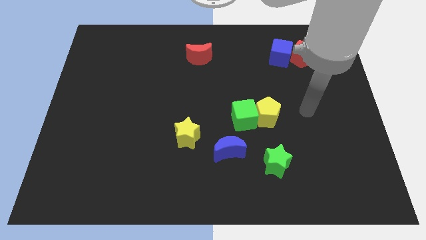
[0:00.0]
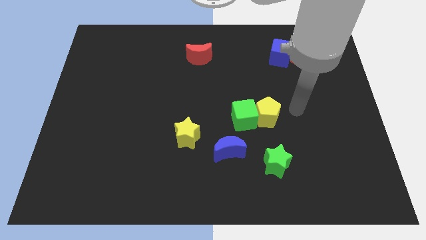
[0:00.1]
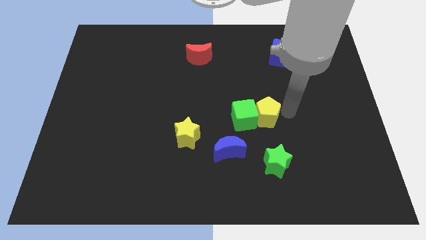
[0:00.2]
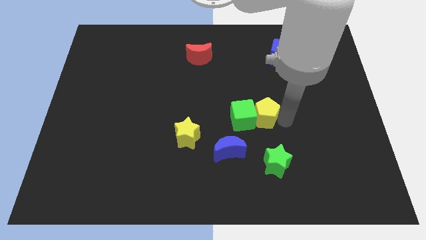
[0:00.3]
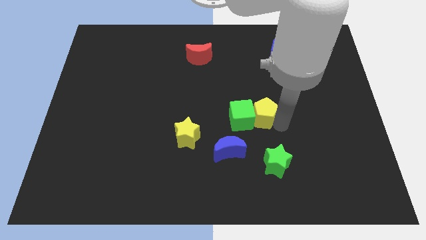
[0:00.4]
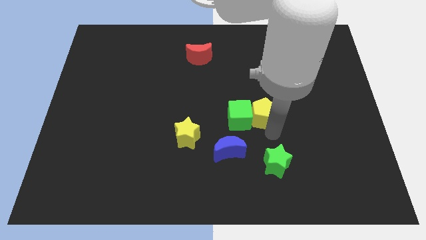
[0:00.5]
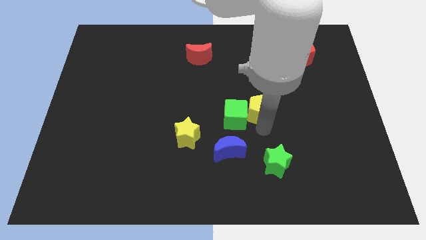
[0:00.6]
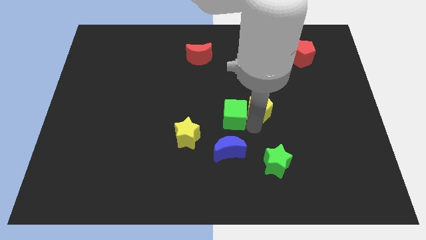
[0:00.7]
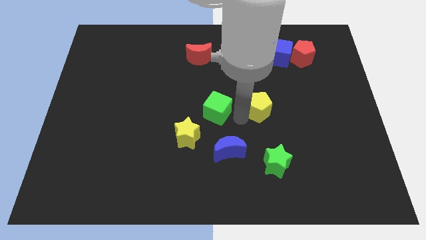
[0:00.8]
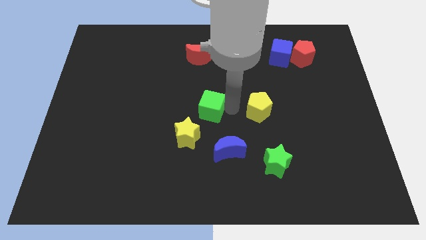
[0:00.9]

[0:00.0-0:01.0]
pull the yellow pentagon apart from the green cube

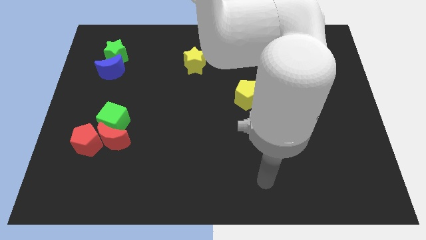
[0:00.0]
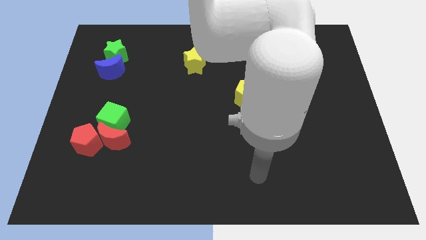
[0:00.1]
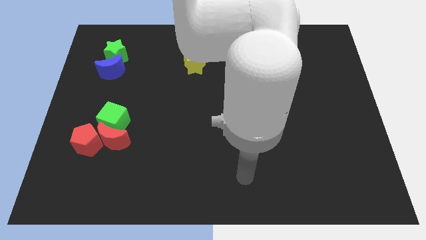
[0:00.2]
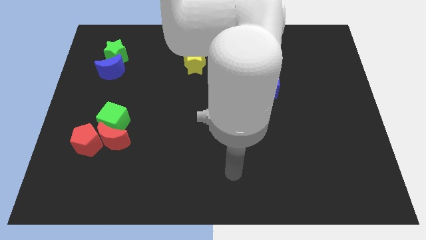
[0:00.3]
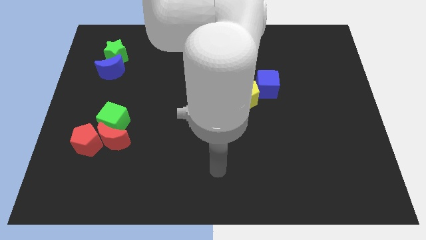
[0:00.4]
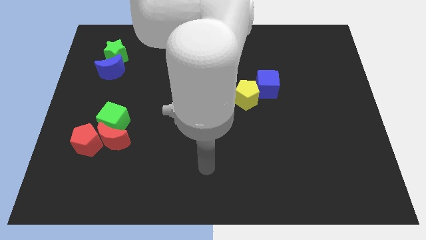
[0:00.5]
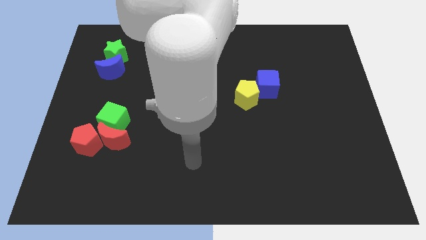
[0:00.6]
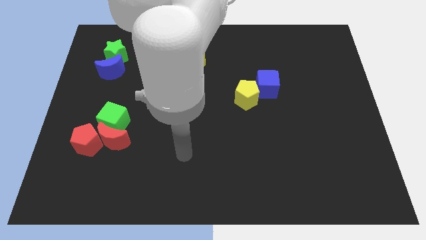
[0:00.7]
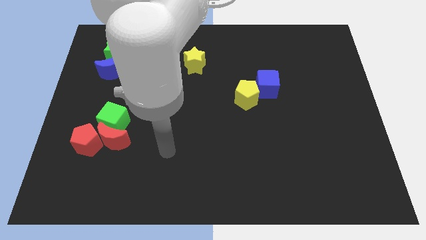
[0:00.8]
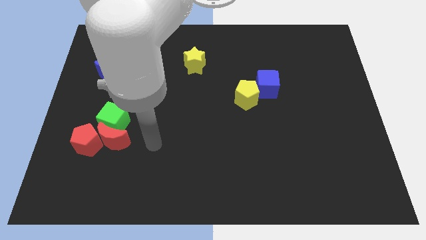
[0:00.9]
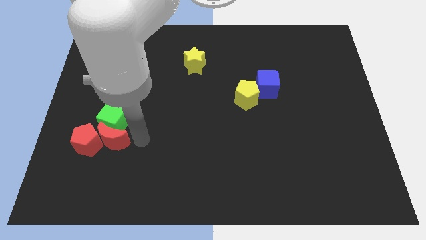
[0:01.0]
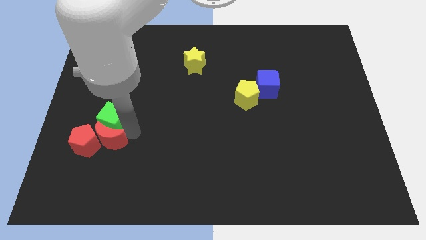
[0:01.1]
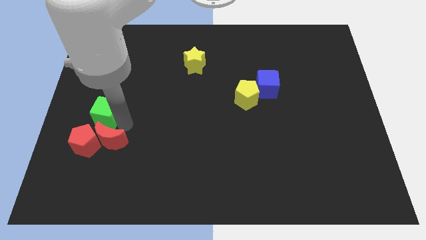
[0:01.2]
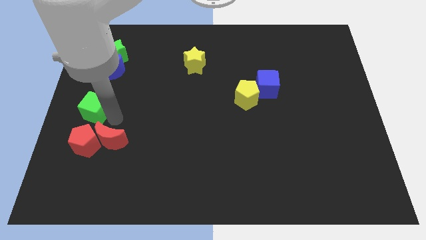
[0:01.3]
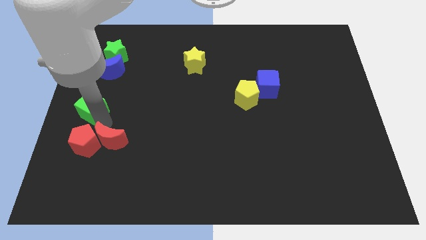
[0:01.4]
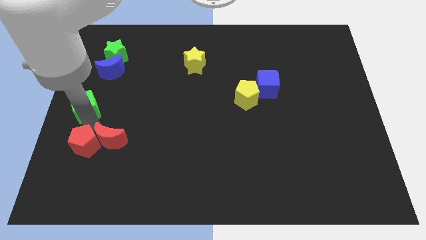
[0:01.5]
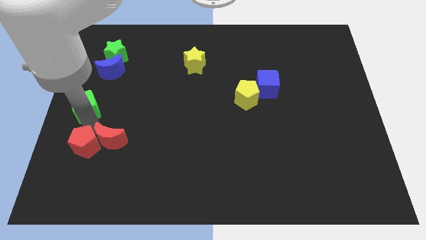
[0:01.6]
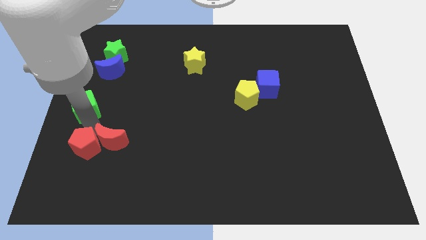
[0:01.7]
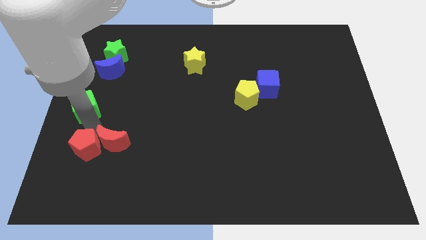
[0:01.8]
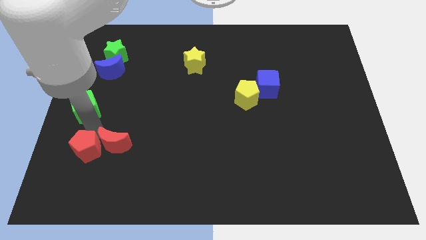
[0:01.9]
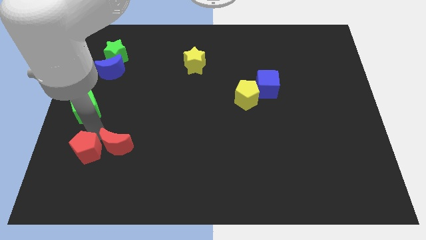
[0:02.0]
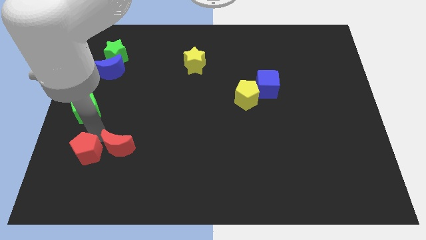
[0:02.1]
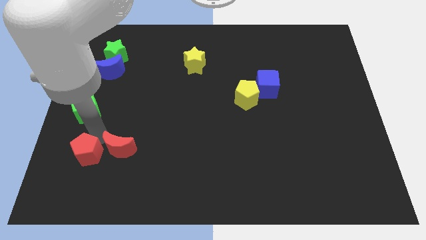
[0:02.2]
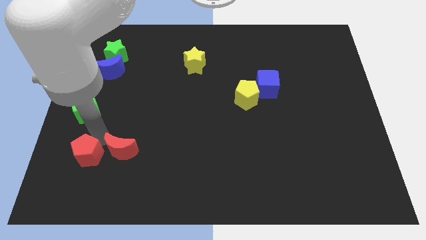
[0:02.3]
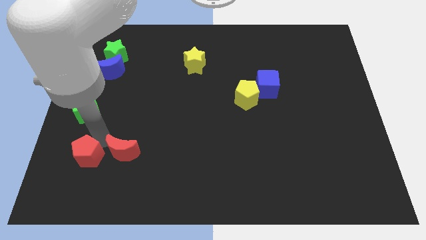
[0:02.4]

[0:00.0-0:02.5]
separate the red moon from the green cube and red pentagon

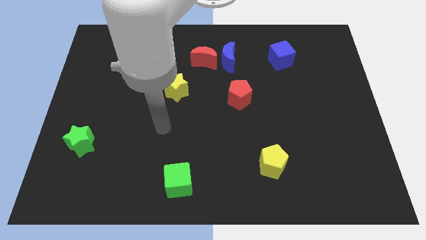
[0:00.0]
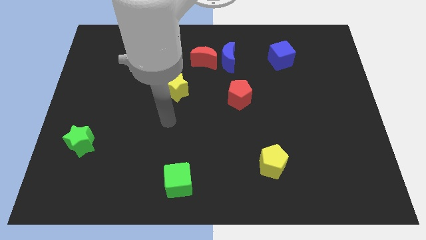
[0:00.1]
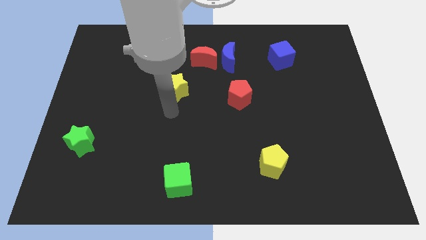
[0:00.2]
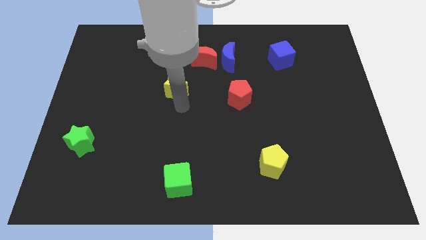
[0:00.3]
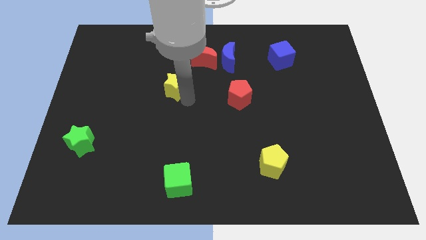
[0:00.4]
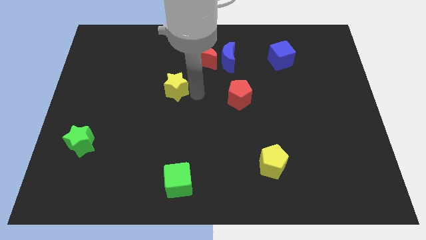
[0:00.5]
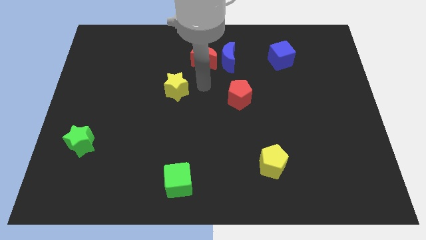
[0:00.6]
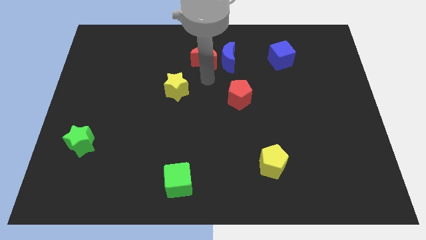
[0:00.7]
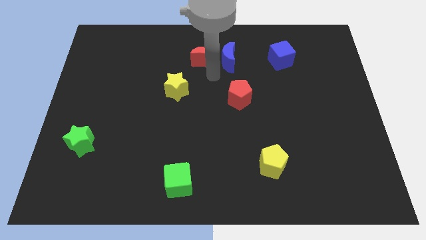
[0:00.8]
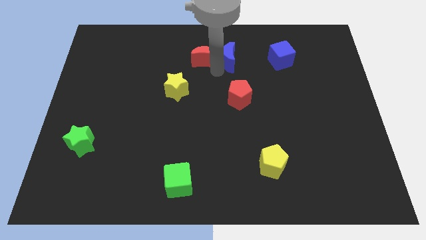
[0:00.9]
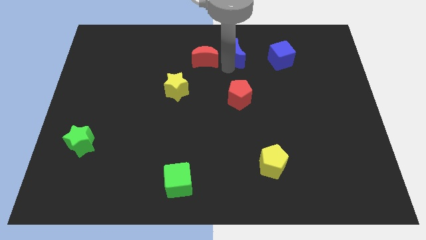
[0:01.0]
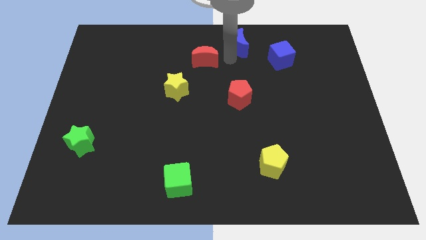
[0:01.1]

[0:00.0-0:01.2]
move the red moon away from the blue moon

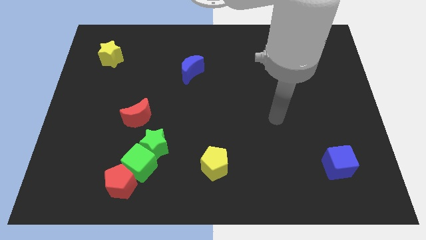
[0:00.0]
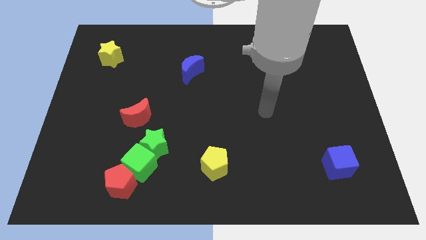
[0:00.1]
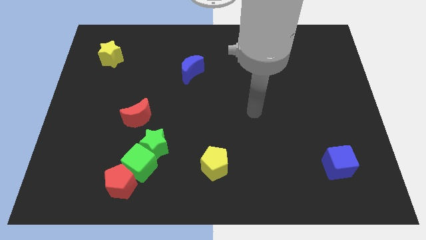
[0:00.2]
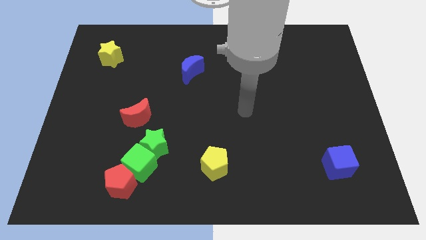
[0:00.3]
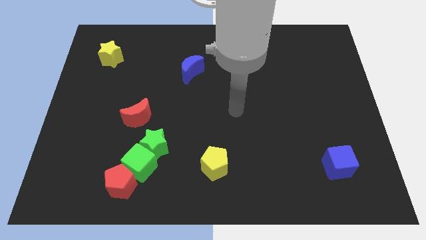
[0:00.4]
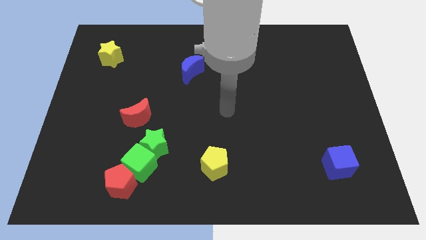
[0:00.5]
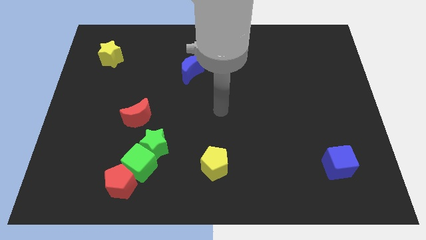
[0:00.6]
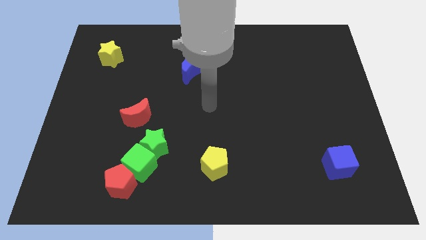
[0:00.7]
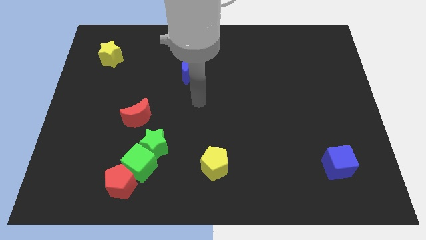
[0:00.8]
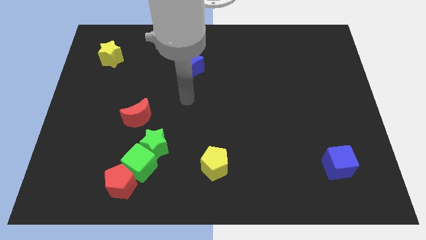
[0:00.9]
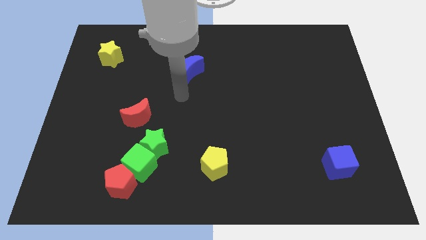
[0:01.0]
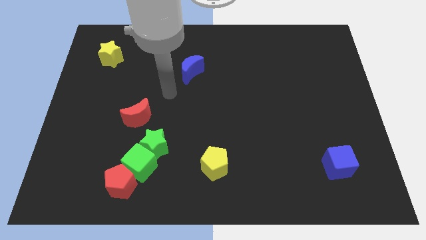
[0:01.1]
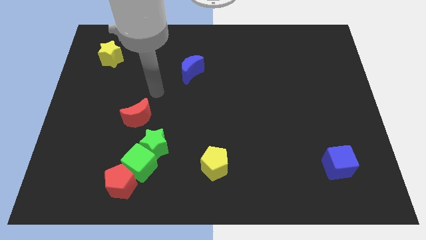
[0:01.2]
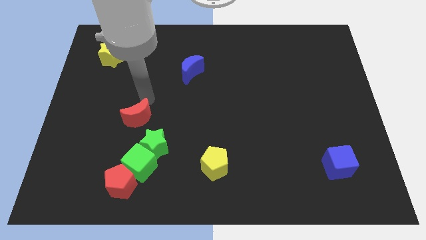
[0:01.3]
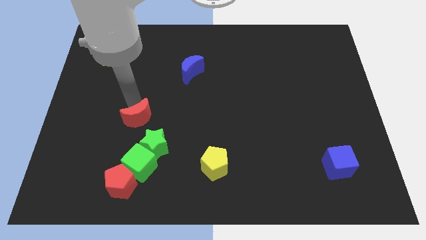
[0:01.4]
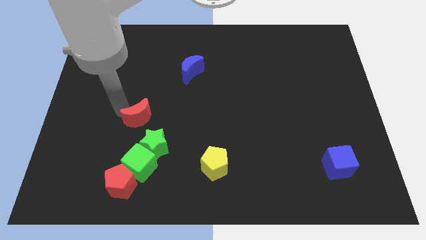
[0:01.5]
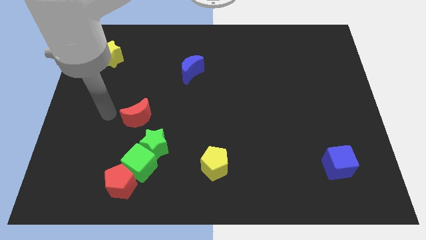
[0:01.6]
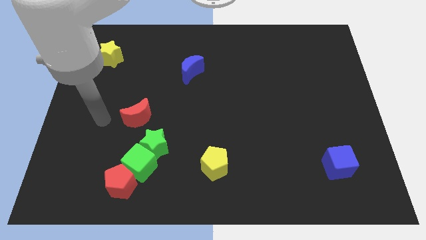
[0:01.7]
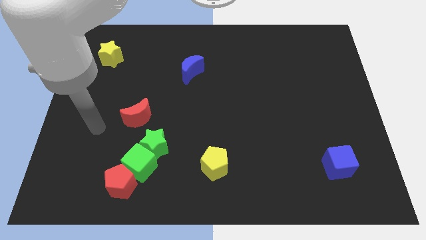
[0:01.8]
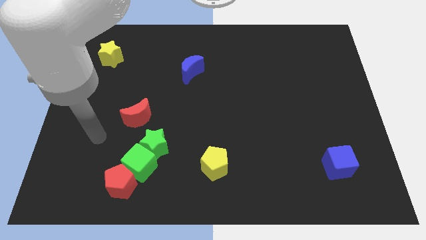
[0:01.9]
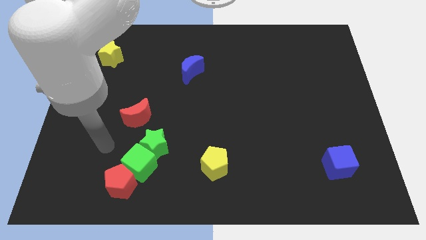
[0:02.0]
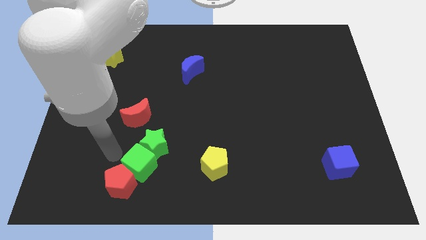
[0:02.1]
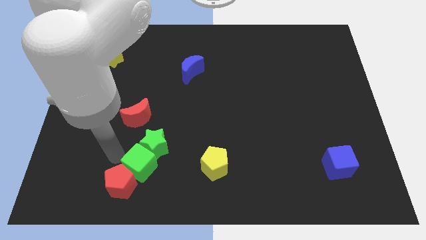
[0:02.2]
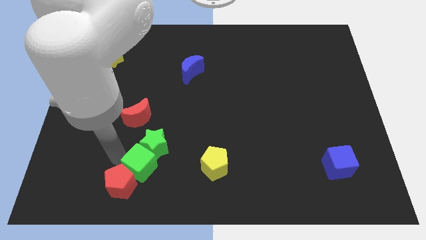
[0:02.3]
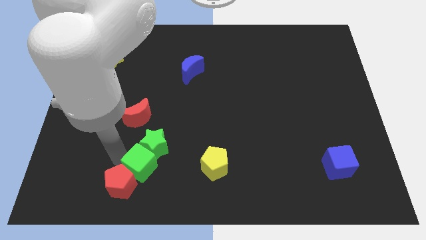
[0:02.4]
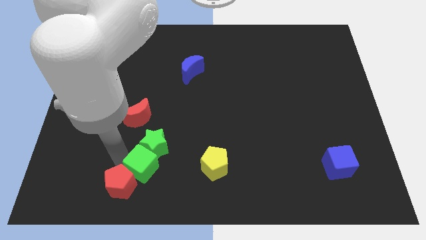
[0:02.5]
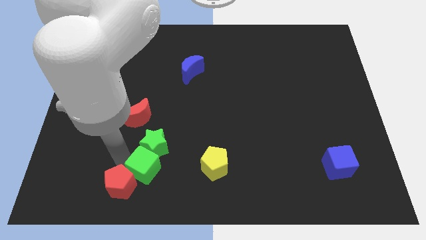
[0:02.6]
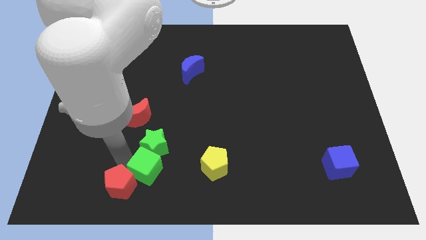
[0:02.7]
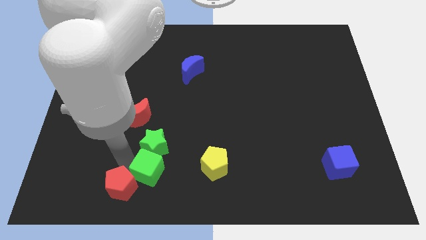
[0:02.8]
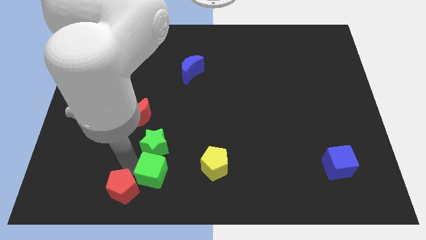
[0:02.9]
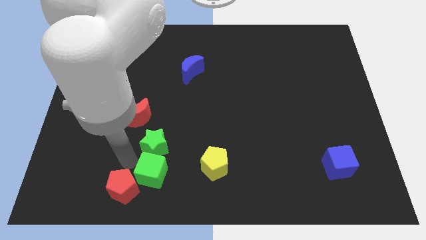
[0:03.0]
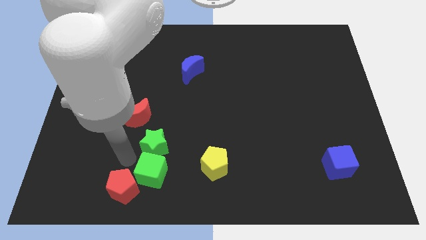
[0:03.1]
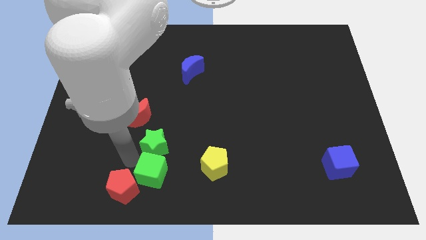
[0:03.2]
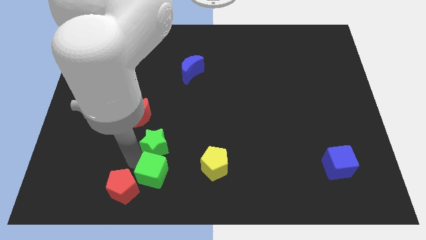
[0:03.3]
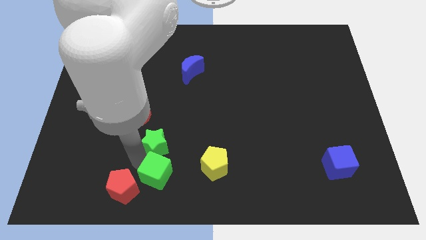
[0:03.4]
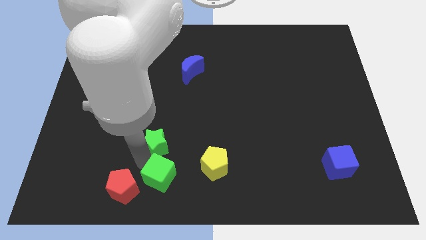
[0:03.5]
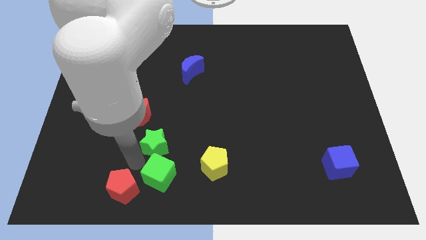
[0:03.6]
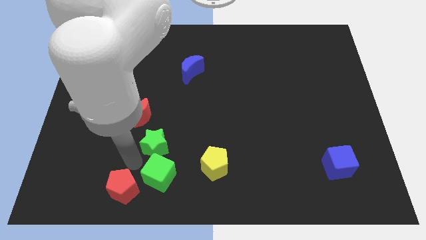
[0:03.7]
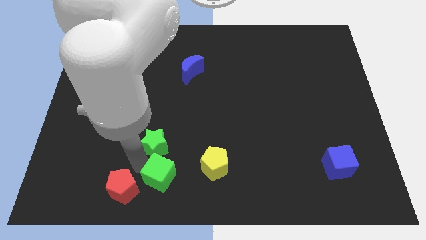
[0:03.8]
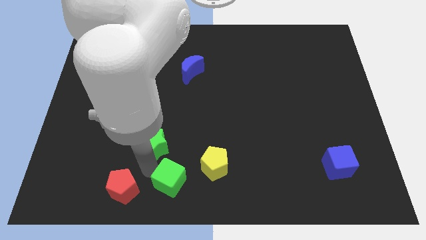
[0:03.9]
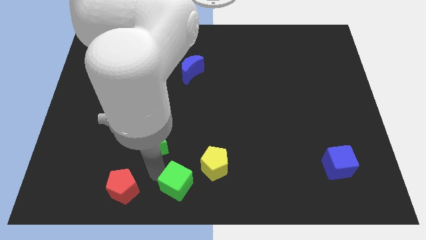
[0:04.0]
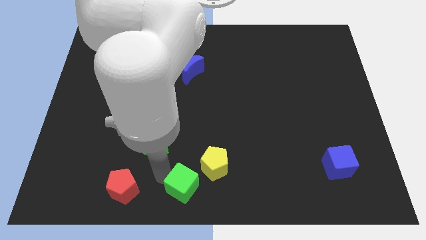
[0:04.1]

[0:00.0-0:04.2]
move the green cube away from the green star and red pentagon

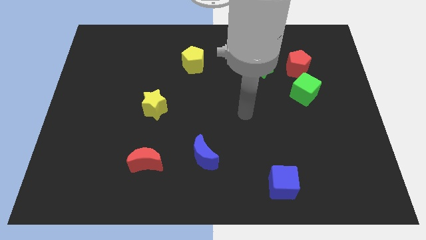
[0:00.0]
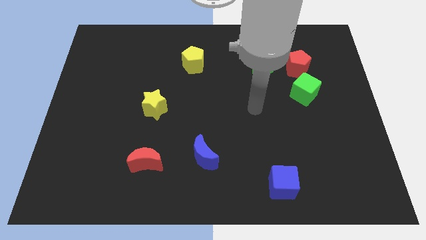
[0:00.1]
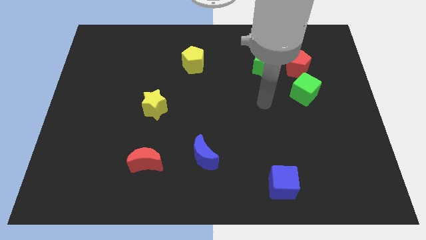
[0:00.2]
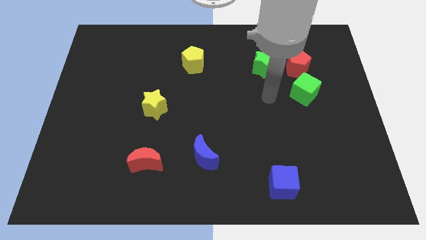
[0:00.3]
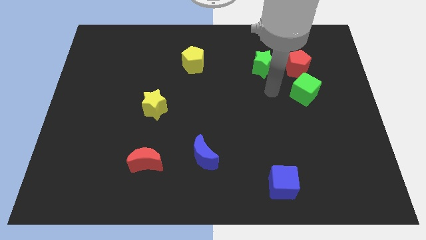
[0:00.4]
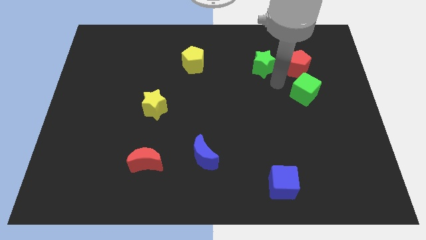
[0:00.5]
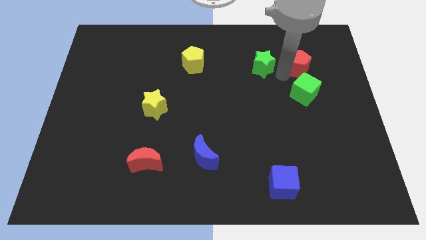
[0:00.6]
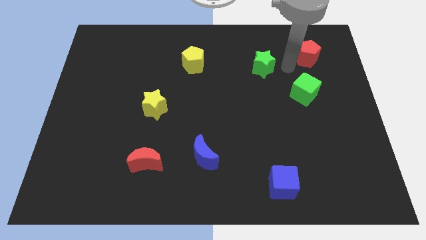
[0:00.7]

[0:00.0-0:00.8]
pull the green star apart from the red pentagon
